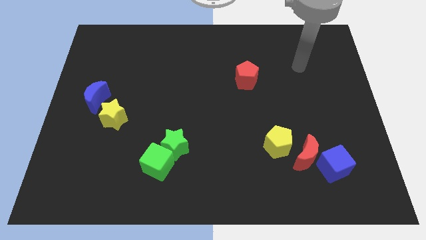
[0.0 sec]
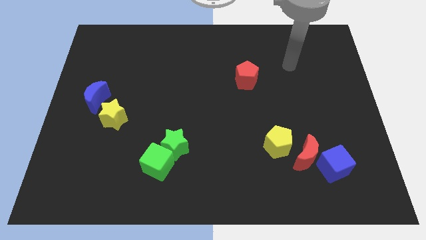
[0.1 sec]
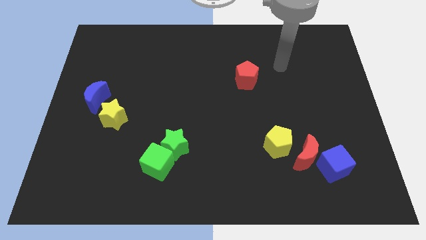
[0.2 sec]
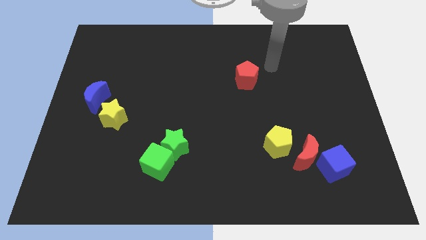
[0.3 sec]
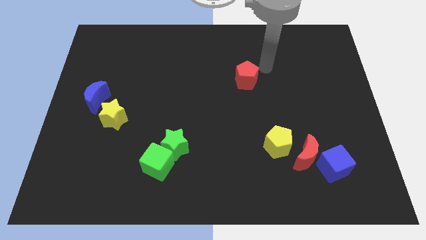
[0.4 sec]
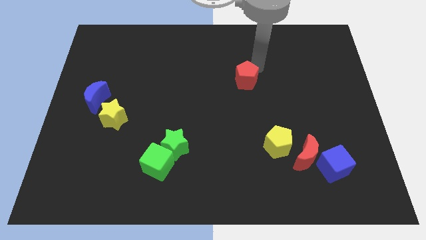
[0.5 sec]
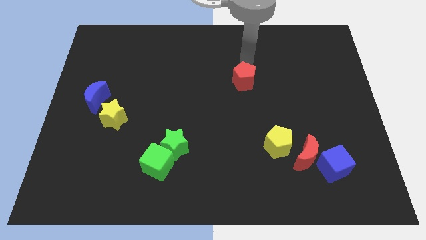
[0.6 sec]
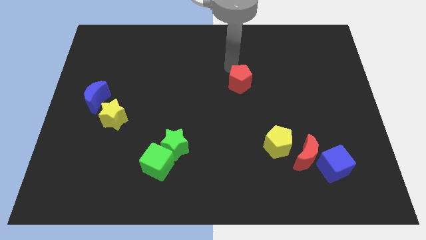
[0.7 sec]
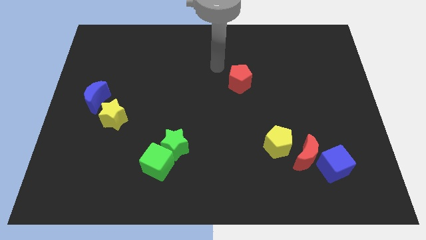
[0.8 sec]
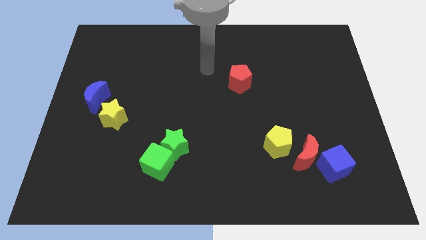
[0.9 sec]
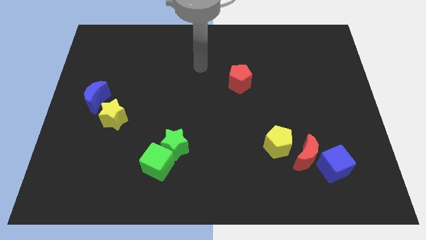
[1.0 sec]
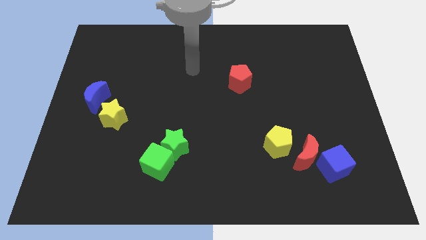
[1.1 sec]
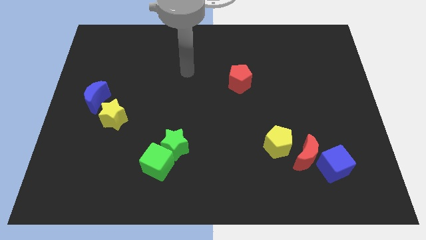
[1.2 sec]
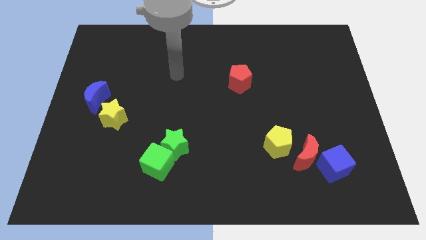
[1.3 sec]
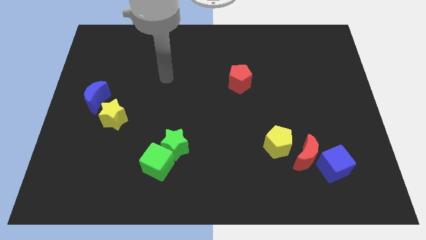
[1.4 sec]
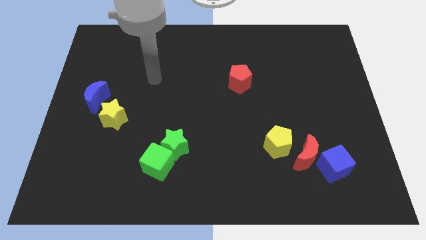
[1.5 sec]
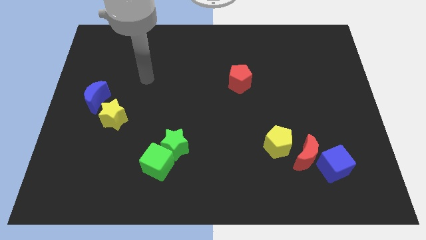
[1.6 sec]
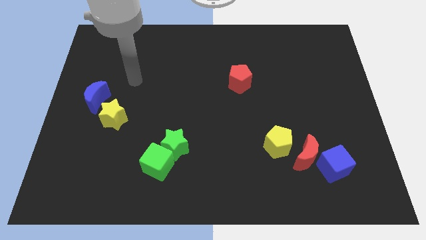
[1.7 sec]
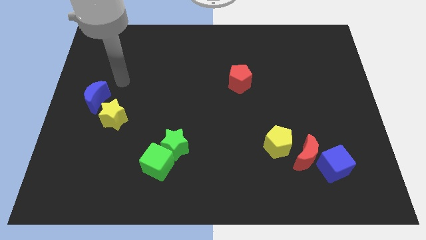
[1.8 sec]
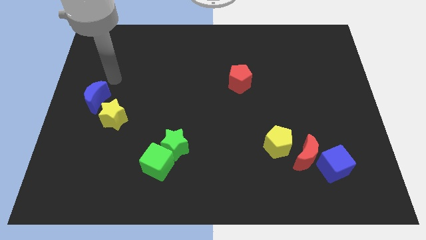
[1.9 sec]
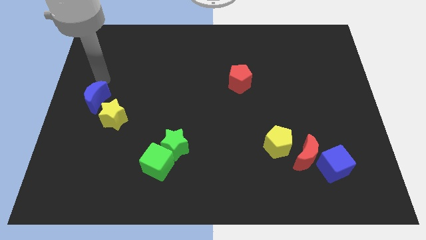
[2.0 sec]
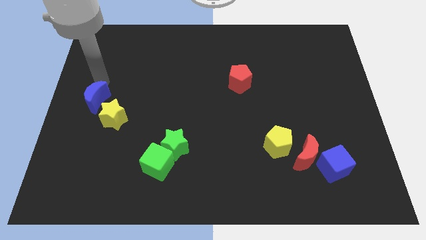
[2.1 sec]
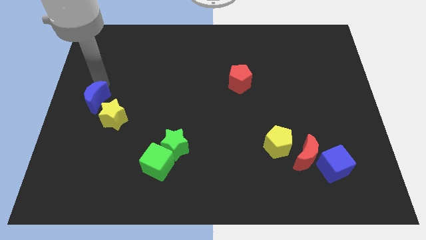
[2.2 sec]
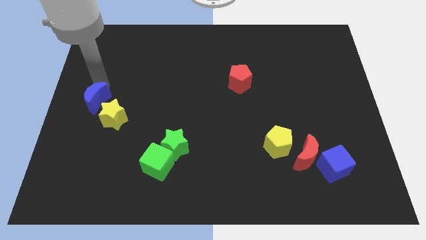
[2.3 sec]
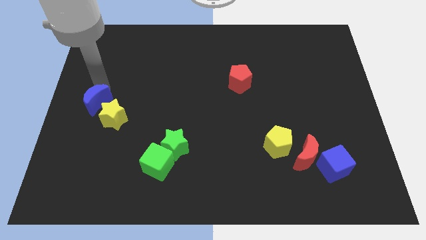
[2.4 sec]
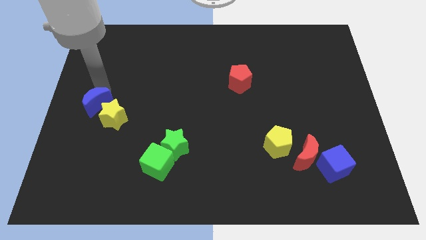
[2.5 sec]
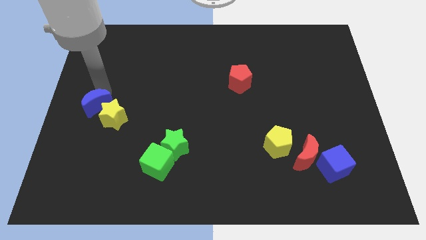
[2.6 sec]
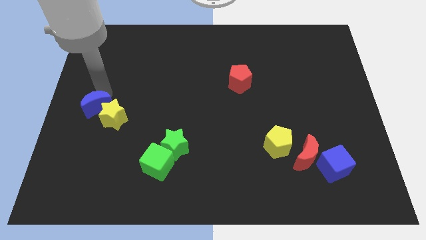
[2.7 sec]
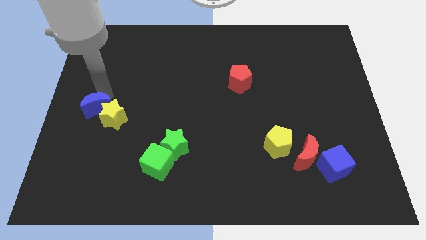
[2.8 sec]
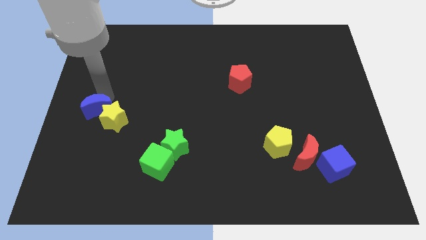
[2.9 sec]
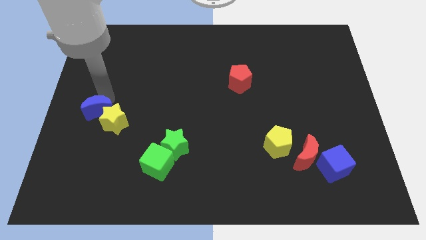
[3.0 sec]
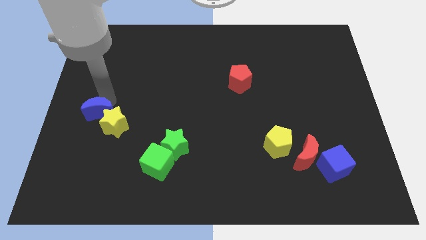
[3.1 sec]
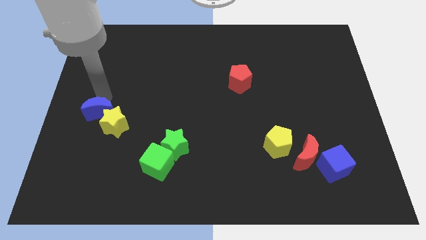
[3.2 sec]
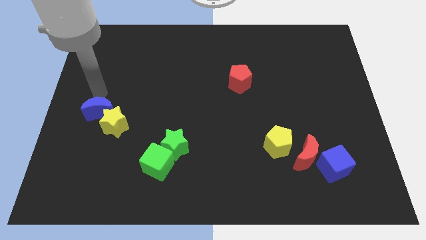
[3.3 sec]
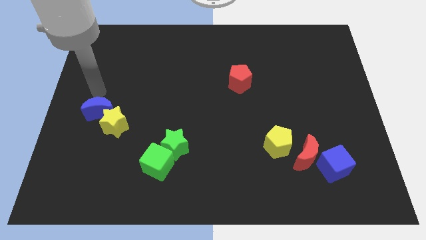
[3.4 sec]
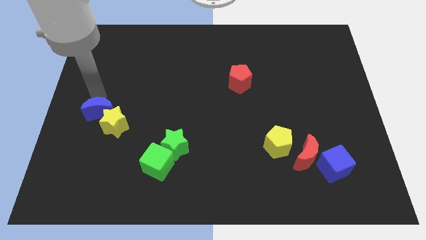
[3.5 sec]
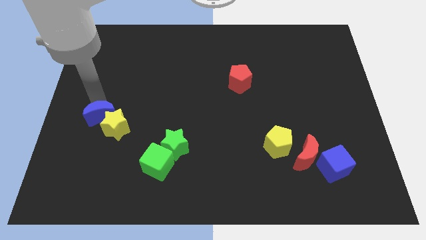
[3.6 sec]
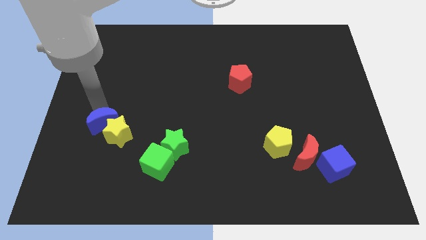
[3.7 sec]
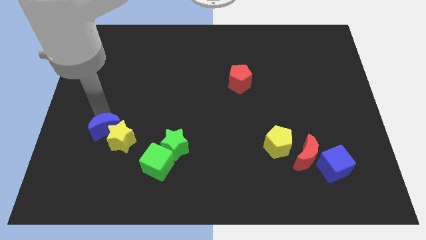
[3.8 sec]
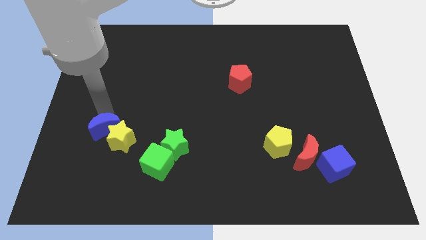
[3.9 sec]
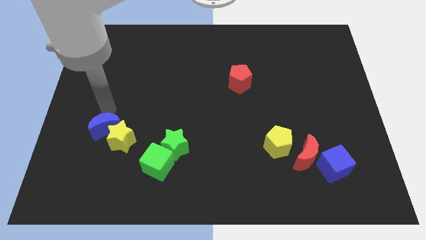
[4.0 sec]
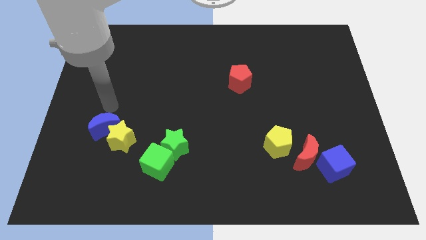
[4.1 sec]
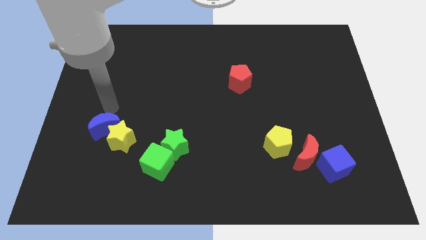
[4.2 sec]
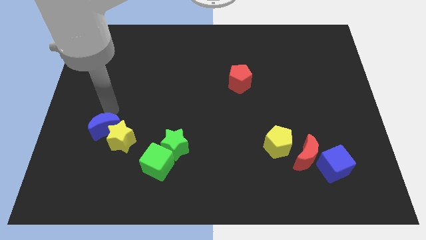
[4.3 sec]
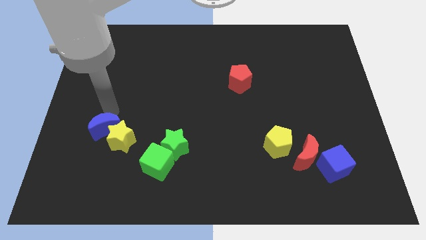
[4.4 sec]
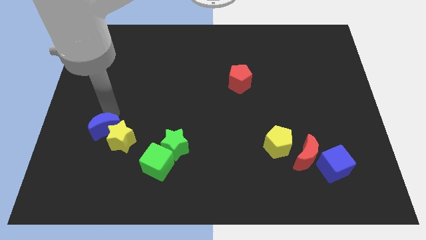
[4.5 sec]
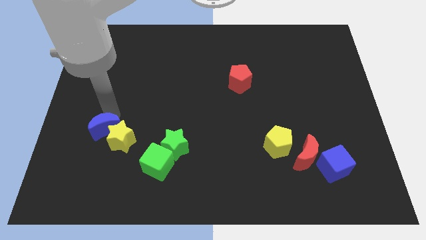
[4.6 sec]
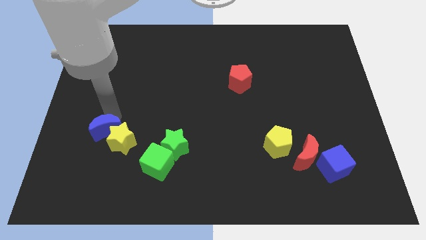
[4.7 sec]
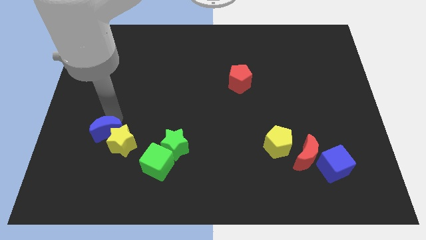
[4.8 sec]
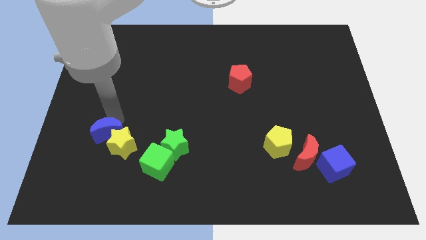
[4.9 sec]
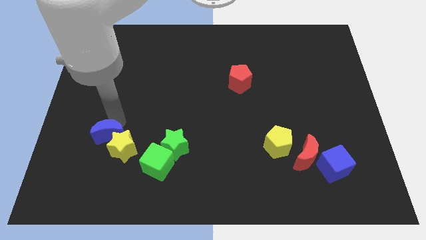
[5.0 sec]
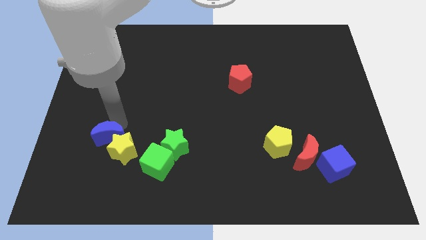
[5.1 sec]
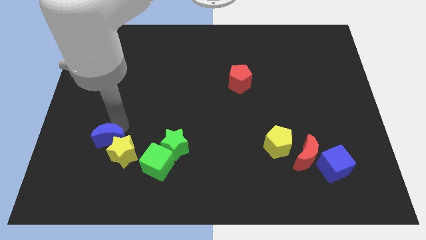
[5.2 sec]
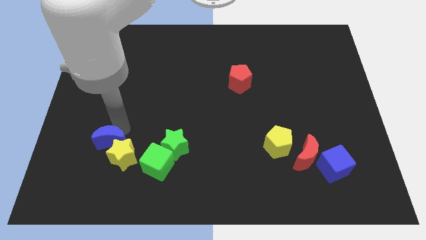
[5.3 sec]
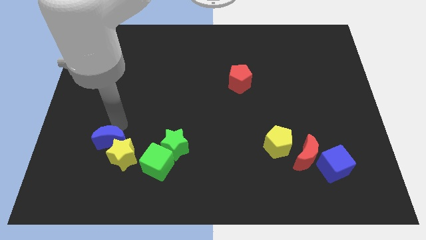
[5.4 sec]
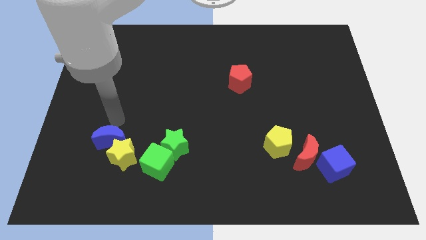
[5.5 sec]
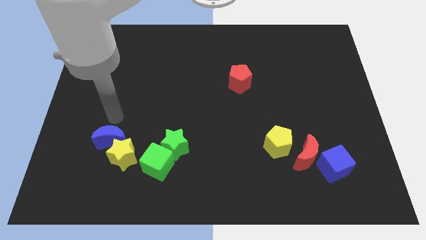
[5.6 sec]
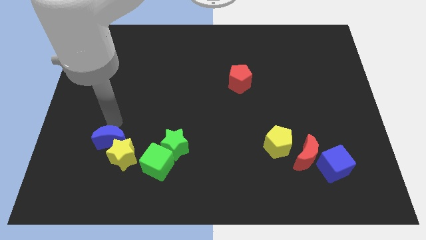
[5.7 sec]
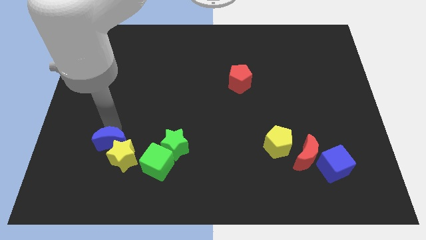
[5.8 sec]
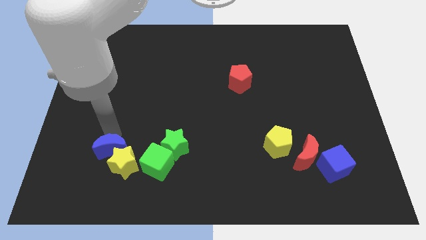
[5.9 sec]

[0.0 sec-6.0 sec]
put the blue moon just left of the green cube

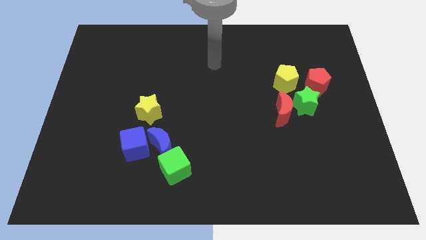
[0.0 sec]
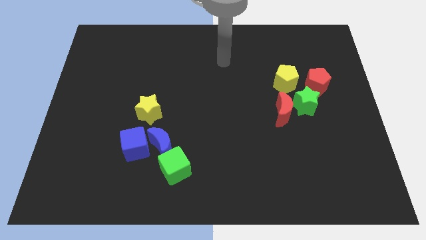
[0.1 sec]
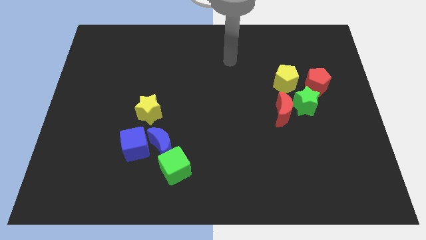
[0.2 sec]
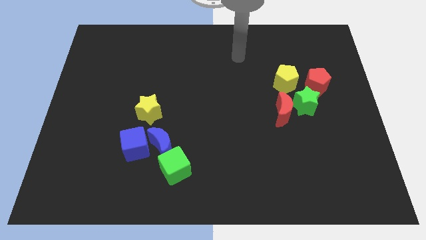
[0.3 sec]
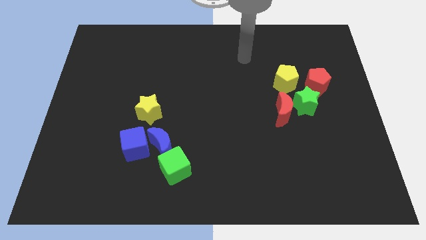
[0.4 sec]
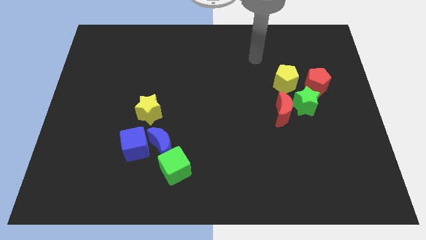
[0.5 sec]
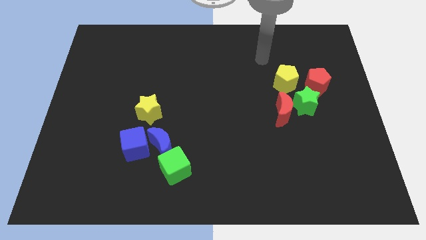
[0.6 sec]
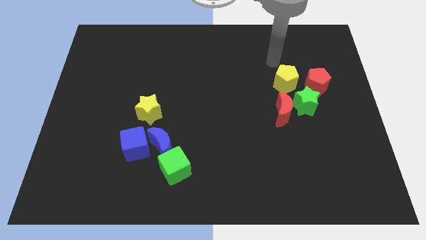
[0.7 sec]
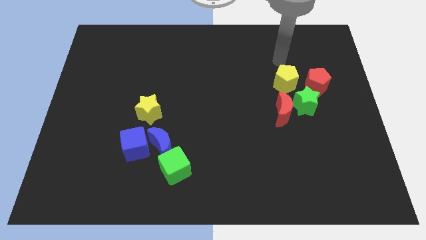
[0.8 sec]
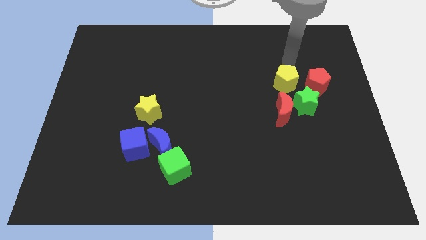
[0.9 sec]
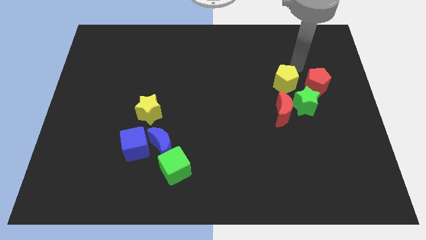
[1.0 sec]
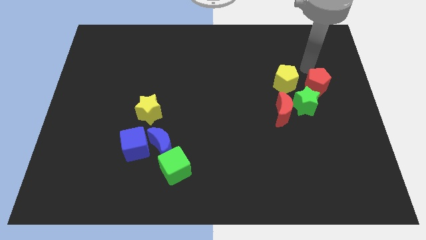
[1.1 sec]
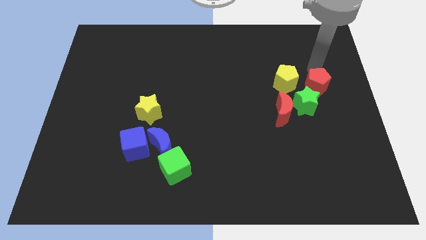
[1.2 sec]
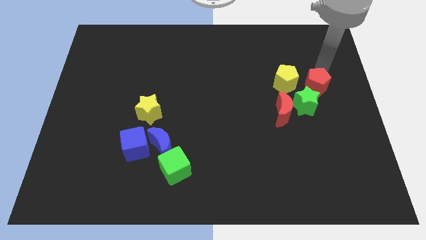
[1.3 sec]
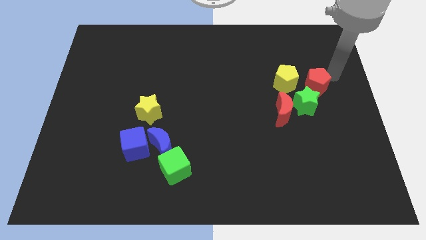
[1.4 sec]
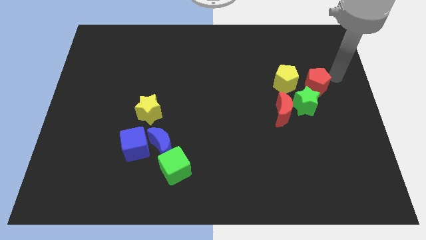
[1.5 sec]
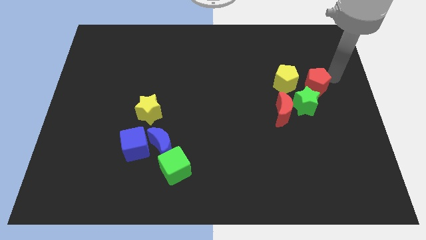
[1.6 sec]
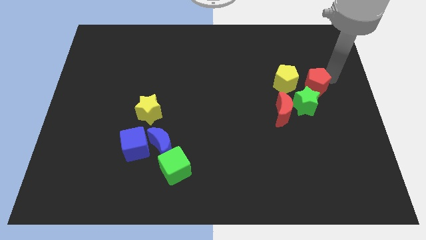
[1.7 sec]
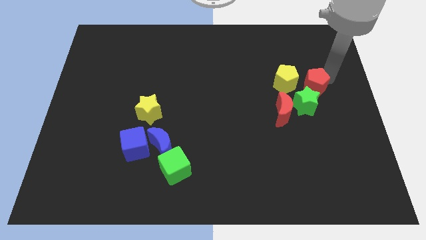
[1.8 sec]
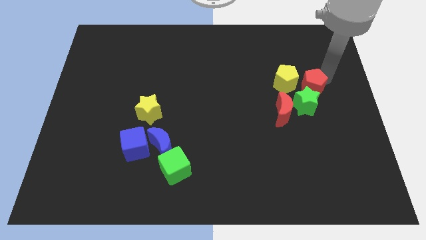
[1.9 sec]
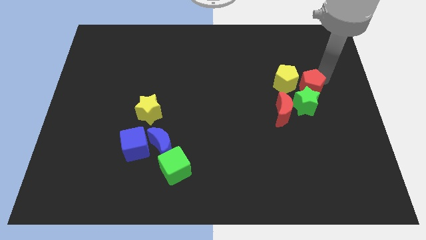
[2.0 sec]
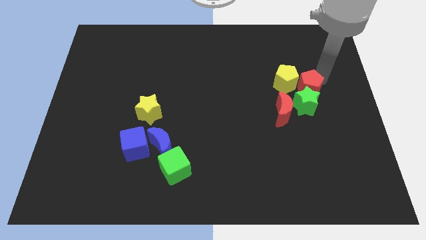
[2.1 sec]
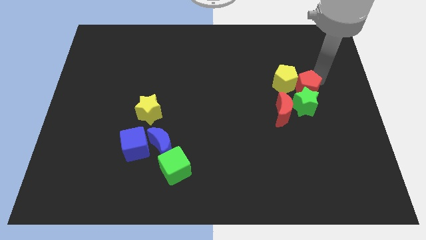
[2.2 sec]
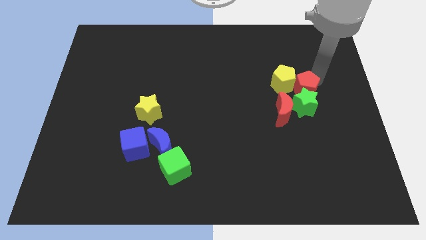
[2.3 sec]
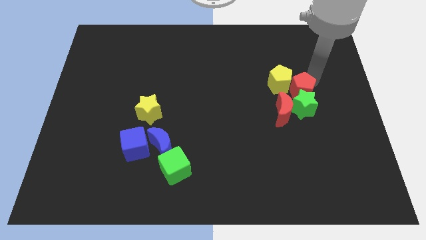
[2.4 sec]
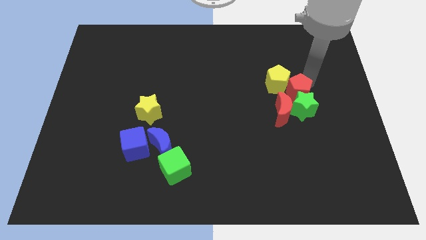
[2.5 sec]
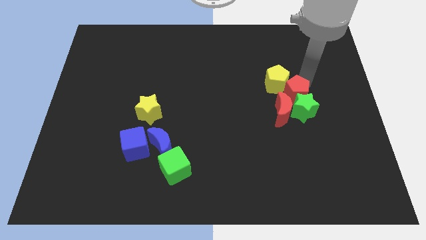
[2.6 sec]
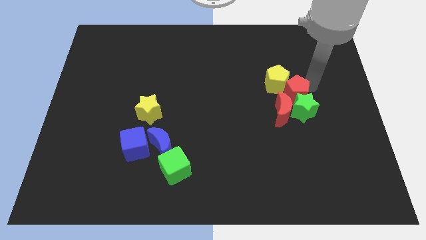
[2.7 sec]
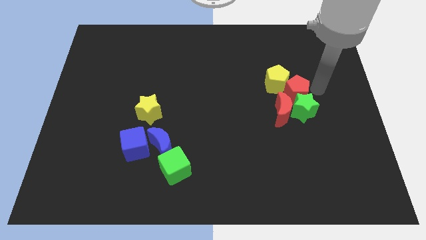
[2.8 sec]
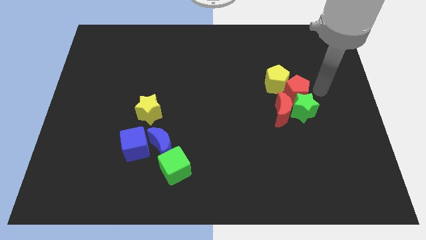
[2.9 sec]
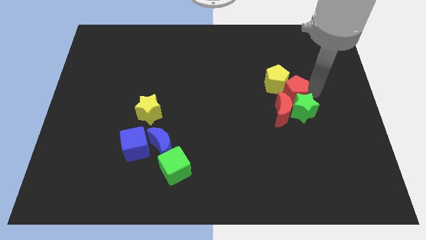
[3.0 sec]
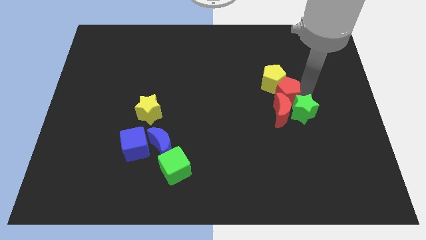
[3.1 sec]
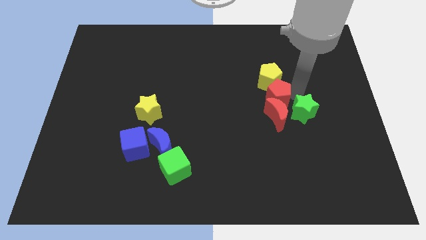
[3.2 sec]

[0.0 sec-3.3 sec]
slide the red pentagon to the bottom left side of the yellow pentagon
